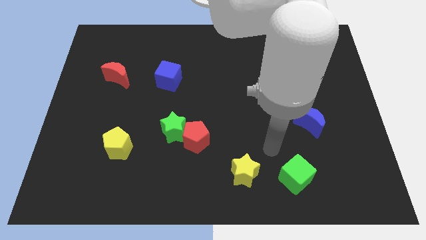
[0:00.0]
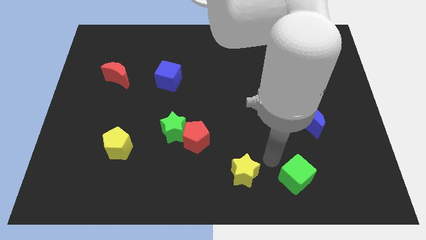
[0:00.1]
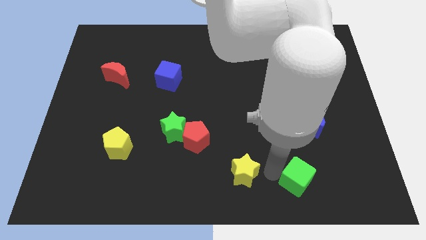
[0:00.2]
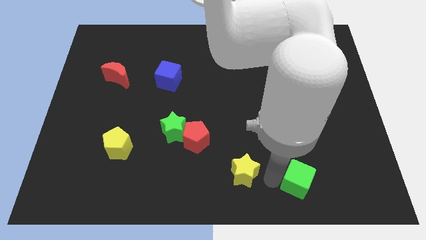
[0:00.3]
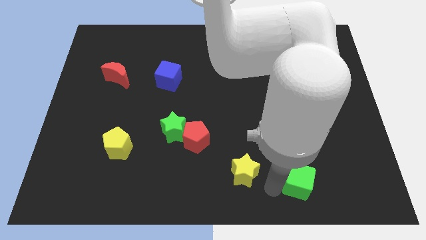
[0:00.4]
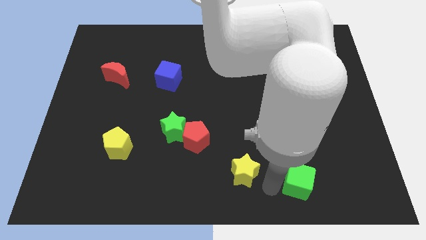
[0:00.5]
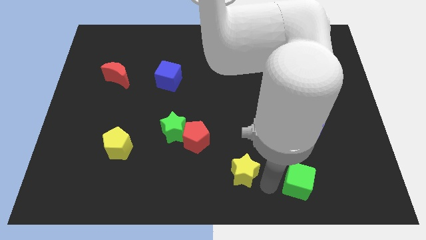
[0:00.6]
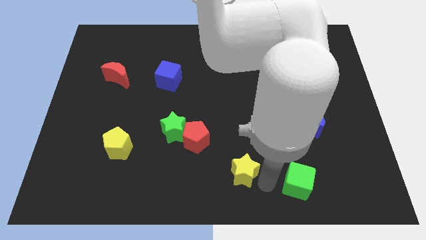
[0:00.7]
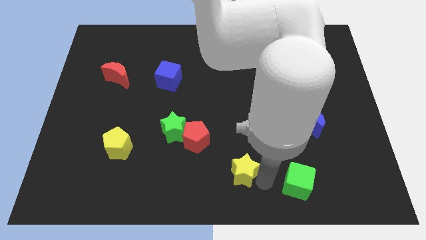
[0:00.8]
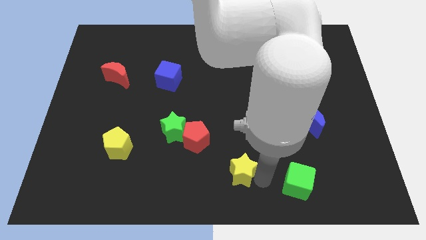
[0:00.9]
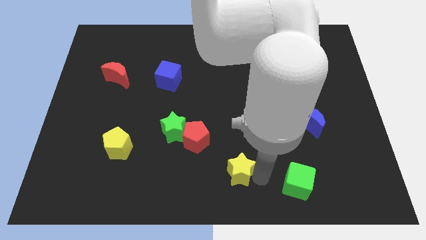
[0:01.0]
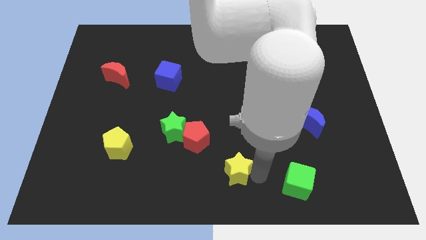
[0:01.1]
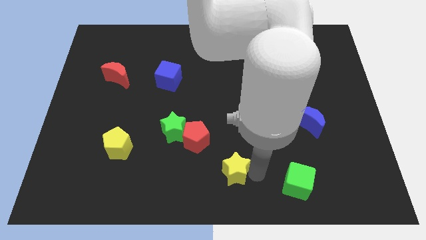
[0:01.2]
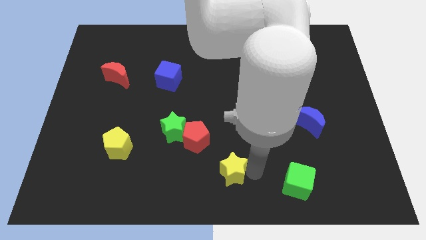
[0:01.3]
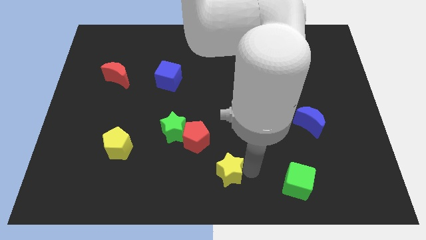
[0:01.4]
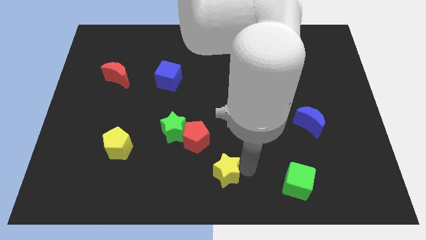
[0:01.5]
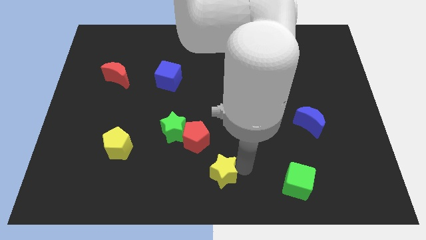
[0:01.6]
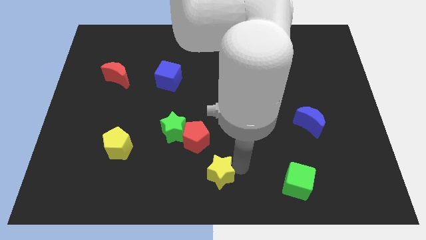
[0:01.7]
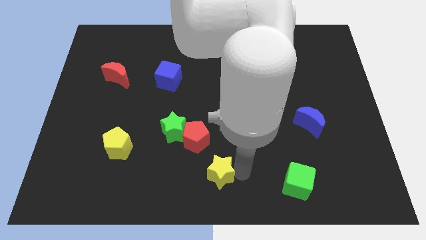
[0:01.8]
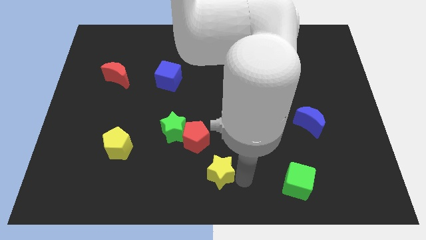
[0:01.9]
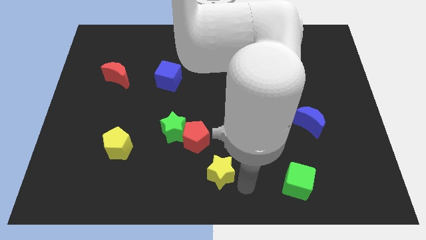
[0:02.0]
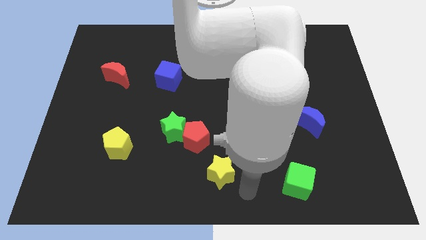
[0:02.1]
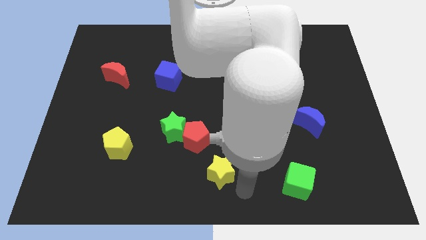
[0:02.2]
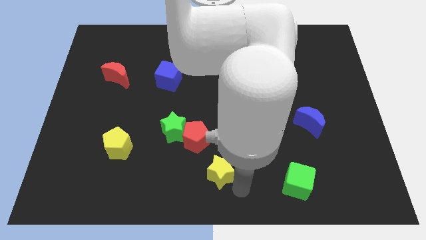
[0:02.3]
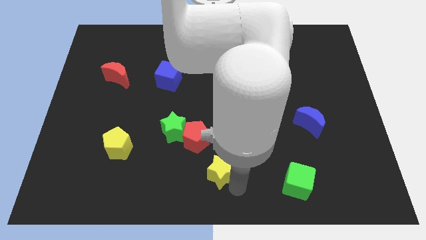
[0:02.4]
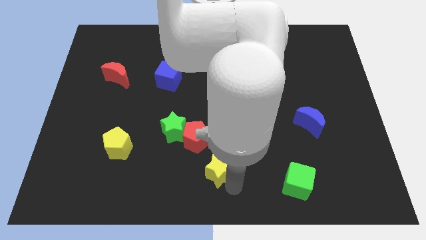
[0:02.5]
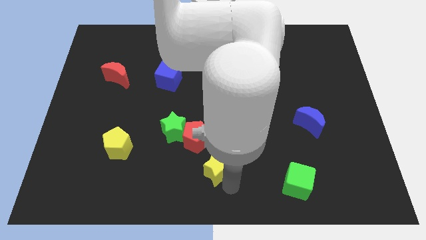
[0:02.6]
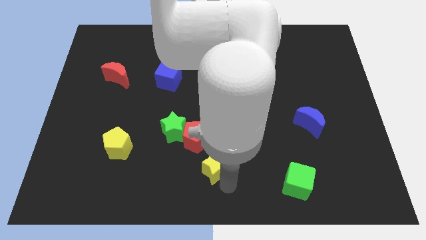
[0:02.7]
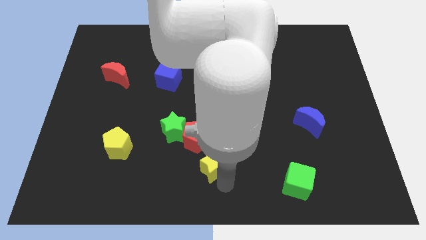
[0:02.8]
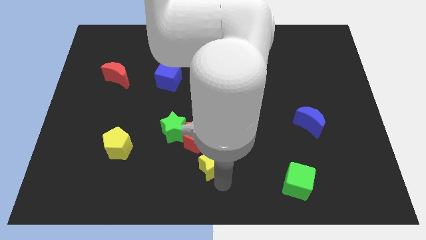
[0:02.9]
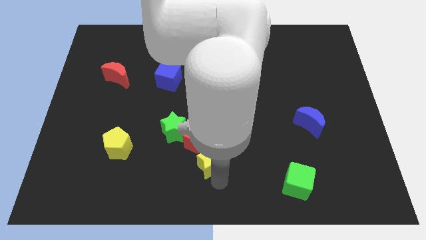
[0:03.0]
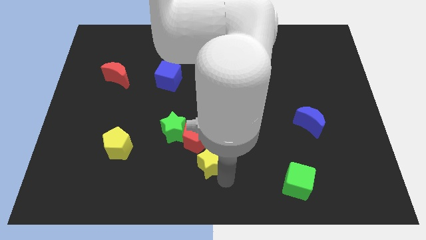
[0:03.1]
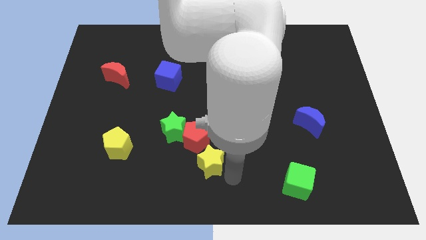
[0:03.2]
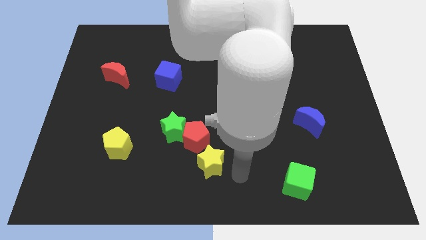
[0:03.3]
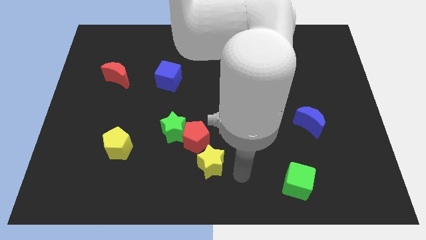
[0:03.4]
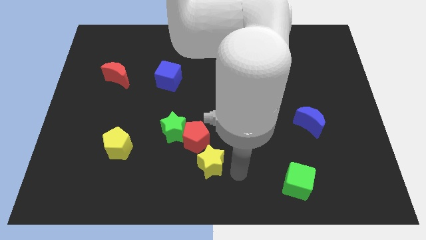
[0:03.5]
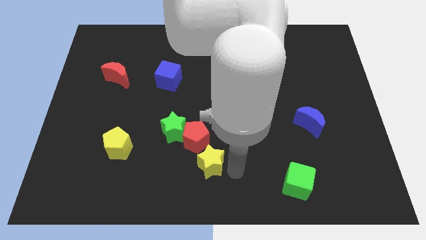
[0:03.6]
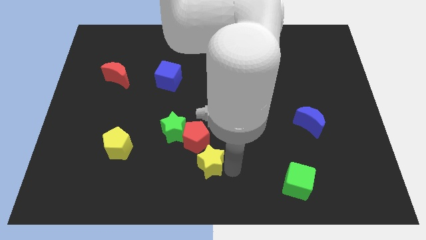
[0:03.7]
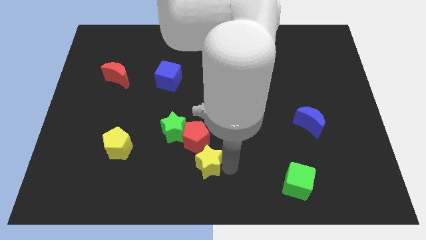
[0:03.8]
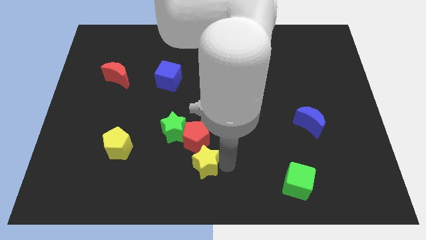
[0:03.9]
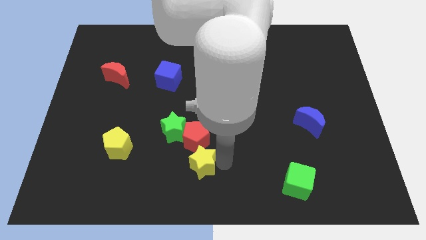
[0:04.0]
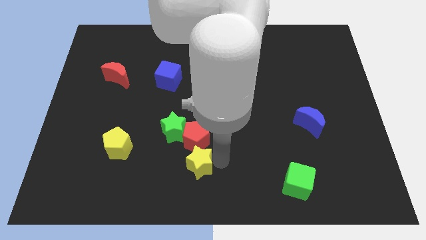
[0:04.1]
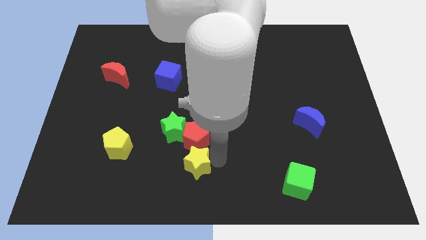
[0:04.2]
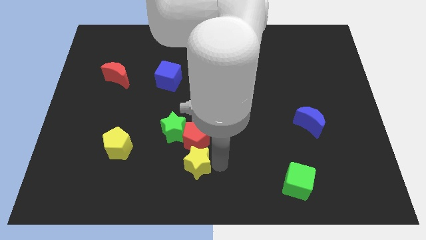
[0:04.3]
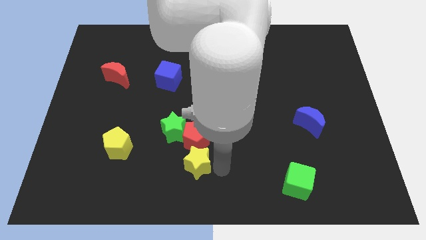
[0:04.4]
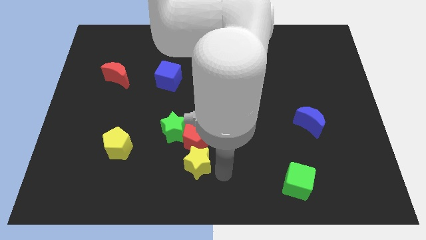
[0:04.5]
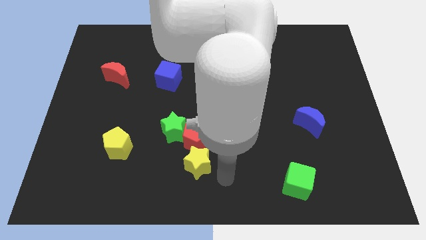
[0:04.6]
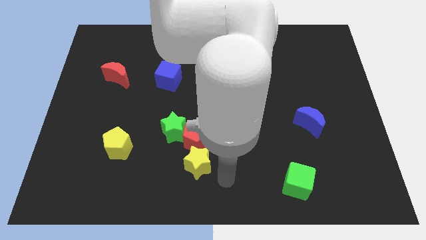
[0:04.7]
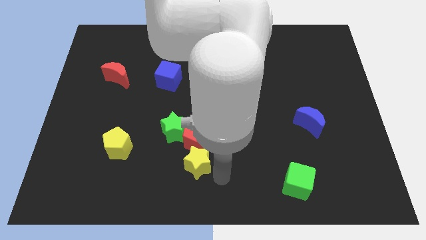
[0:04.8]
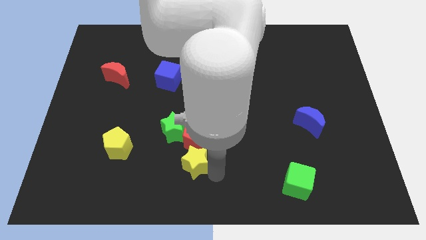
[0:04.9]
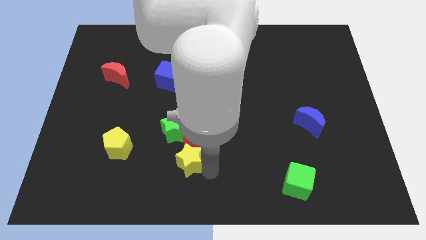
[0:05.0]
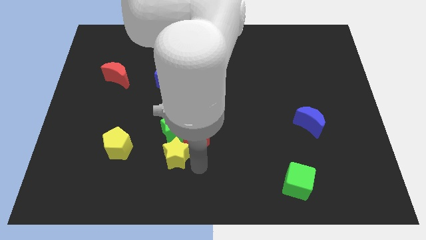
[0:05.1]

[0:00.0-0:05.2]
put the yellow star to the left of the red pentagon

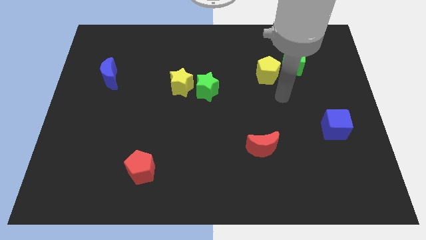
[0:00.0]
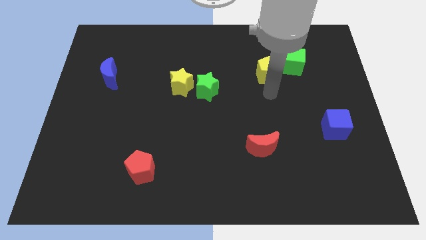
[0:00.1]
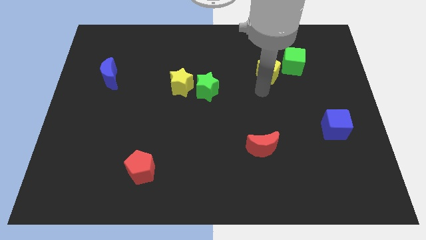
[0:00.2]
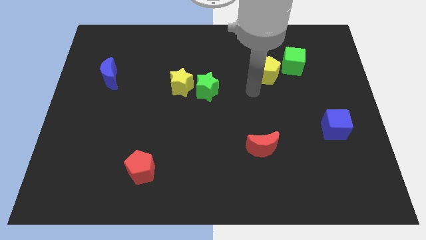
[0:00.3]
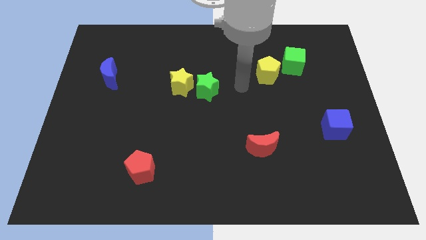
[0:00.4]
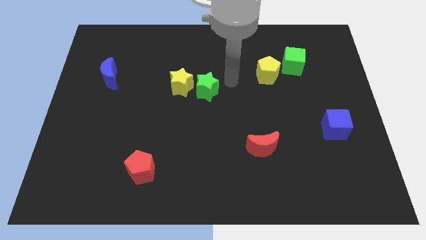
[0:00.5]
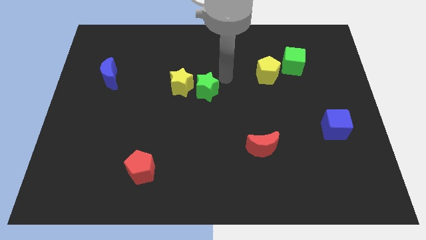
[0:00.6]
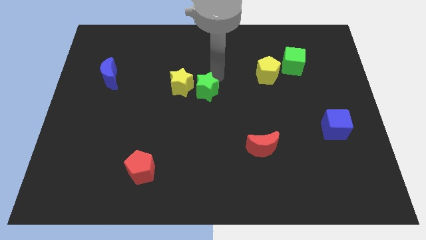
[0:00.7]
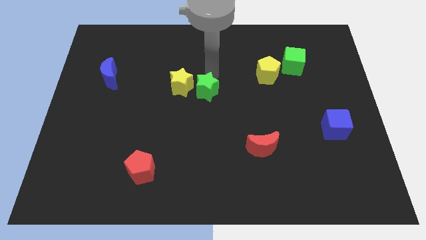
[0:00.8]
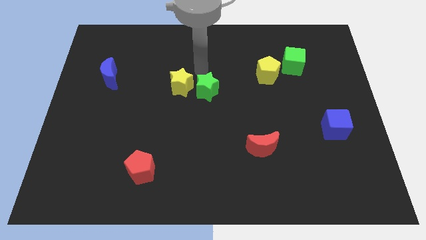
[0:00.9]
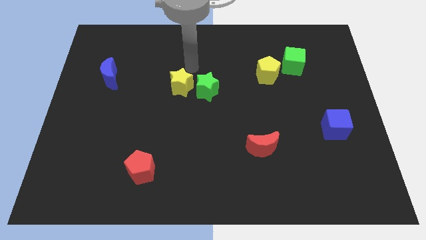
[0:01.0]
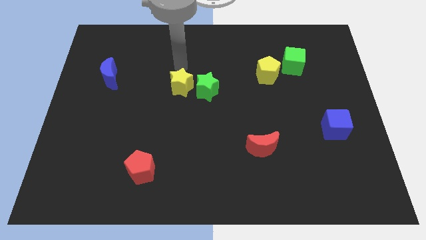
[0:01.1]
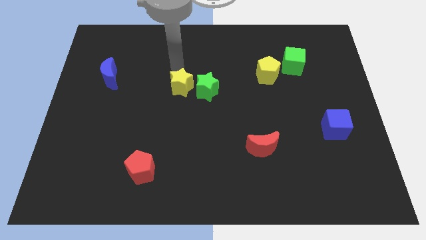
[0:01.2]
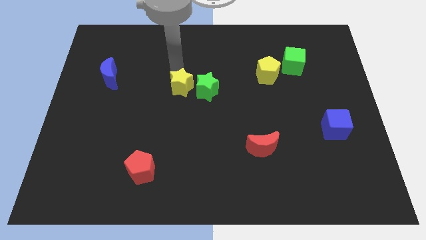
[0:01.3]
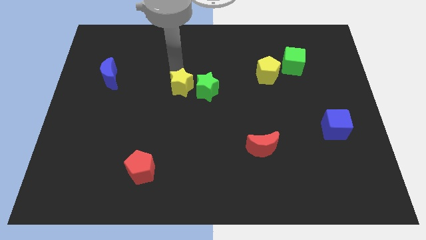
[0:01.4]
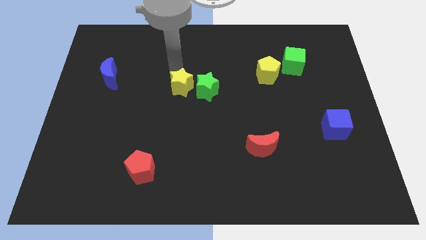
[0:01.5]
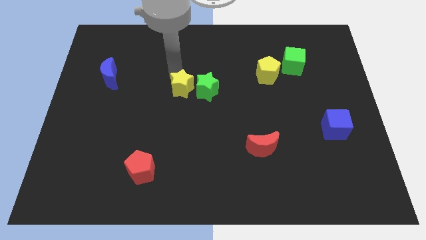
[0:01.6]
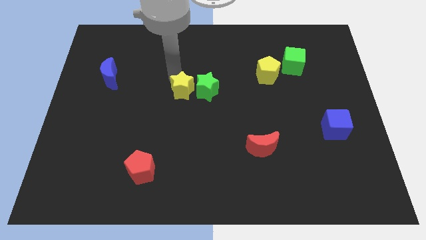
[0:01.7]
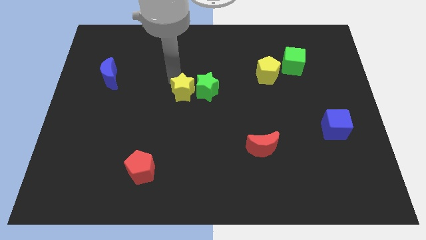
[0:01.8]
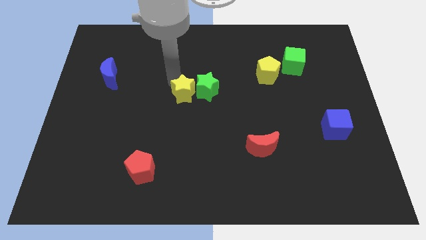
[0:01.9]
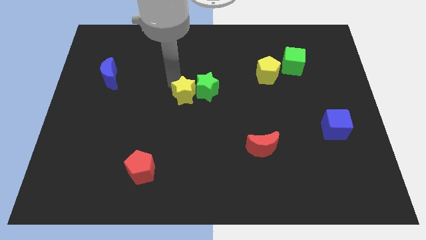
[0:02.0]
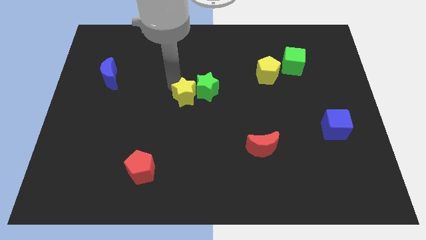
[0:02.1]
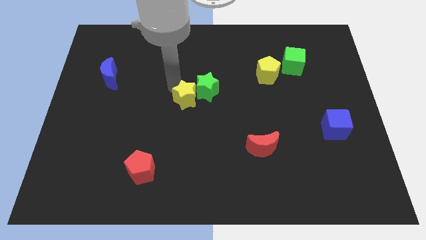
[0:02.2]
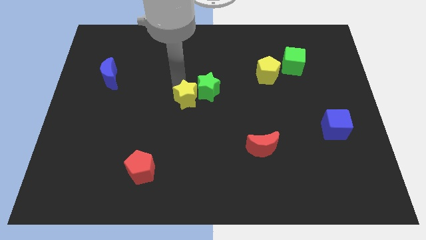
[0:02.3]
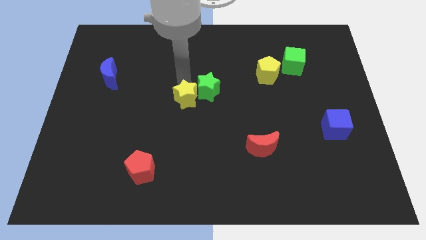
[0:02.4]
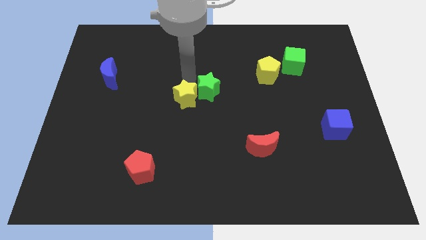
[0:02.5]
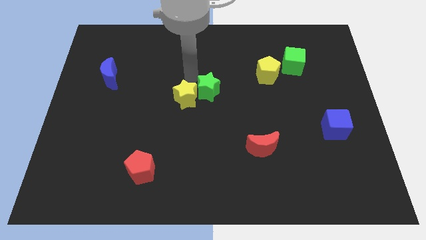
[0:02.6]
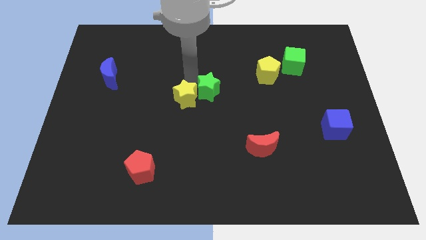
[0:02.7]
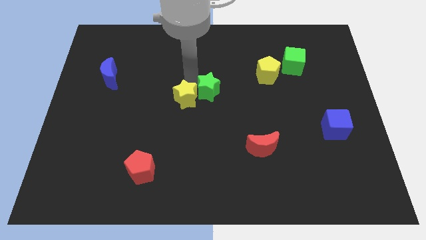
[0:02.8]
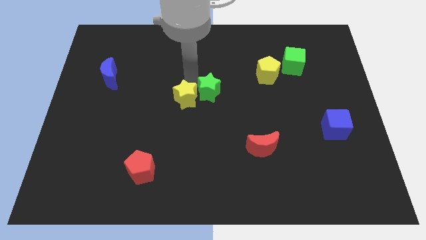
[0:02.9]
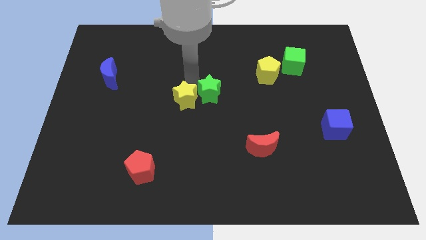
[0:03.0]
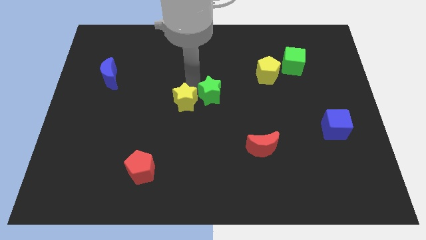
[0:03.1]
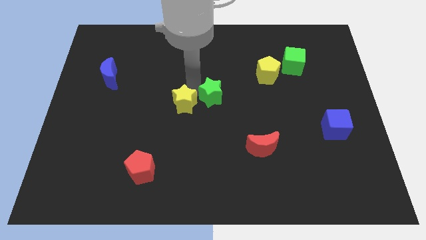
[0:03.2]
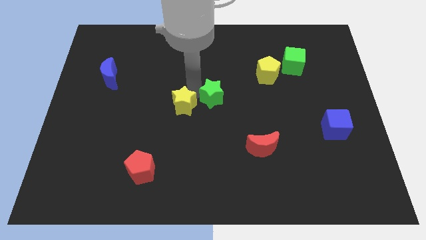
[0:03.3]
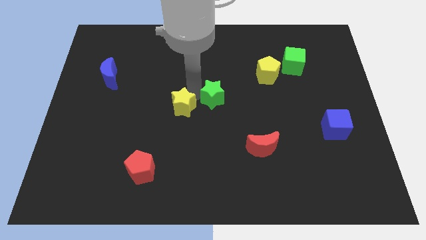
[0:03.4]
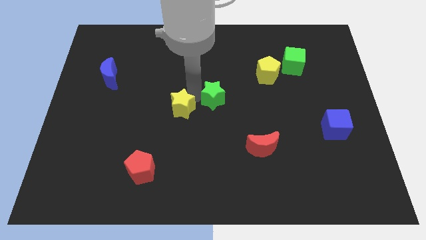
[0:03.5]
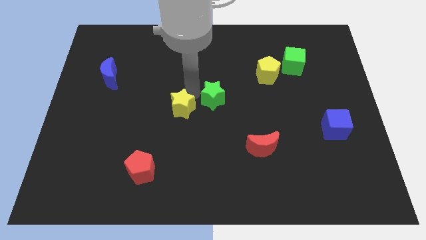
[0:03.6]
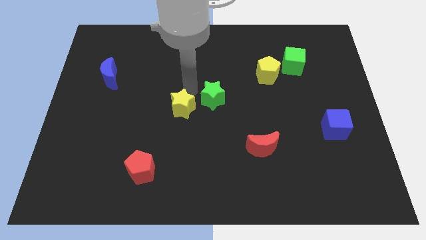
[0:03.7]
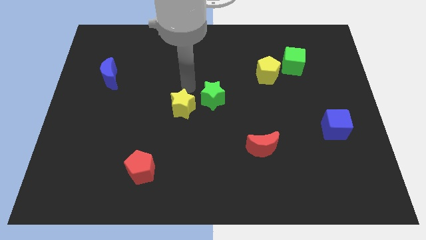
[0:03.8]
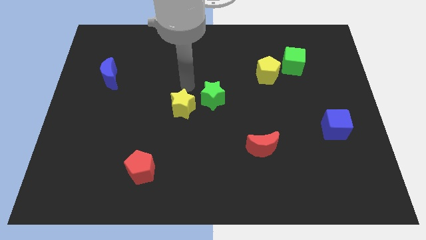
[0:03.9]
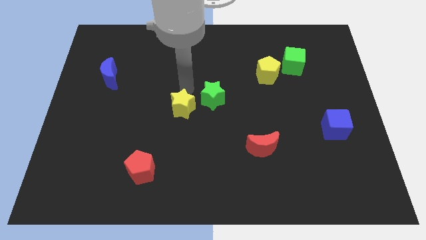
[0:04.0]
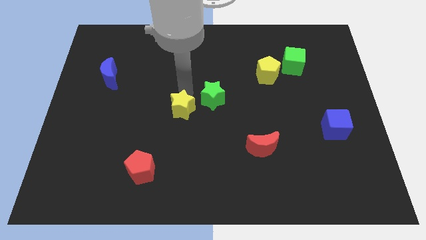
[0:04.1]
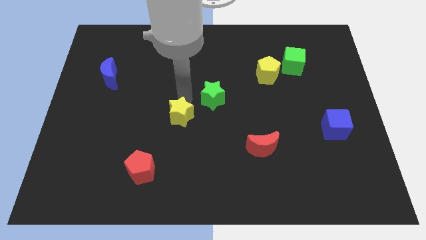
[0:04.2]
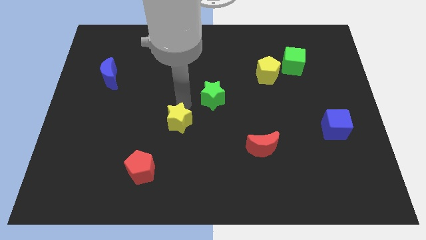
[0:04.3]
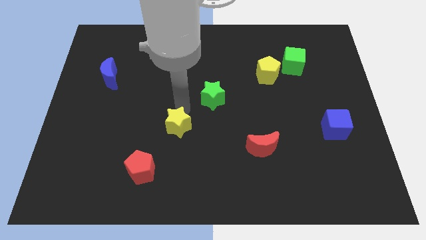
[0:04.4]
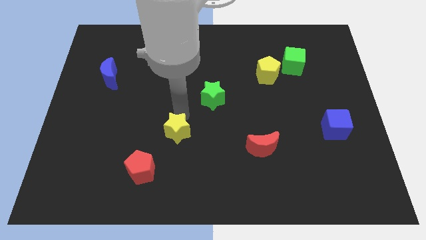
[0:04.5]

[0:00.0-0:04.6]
slide the yellow star to the top right of the red pentagon
